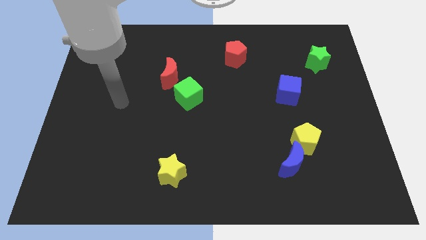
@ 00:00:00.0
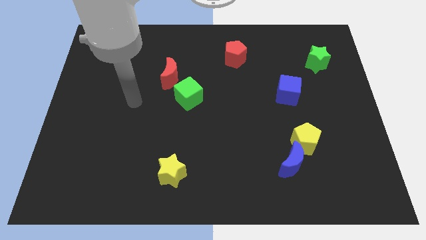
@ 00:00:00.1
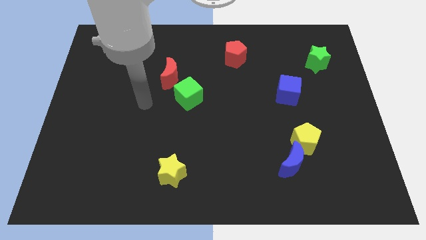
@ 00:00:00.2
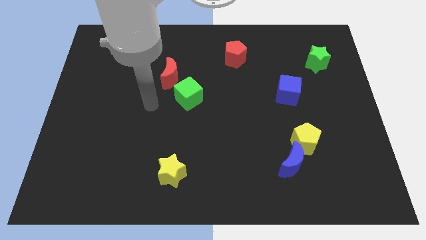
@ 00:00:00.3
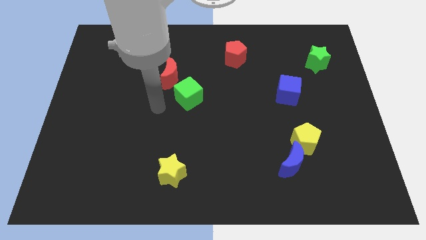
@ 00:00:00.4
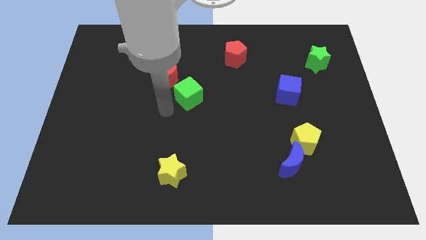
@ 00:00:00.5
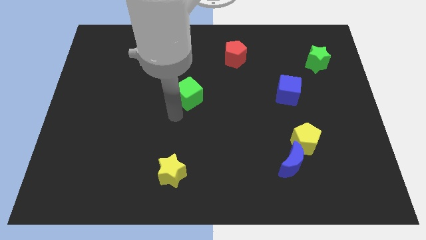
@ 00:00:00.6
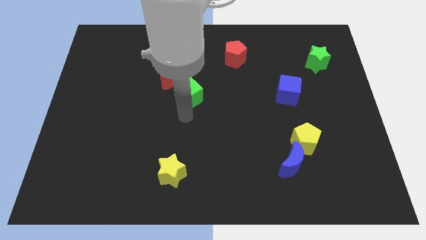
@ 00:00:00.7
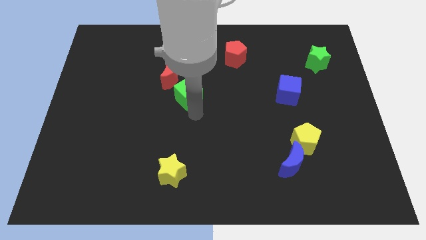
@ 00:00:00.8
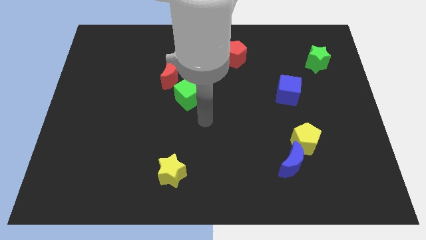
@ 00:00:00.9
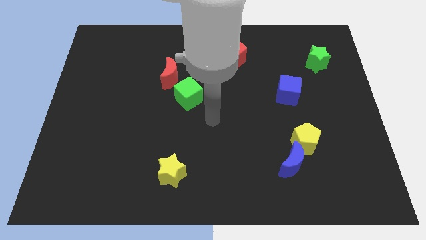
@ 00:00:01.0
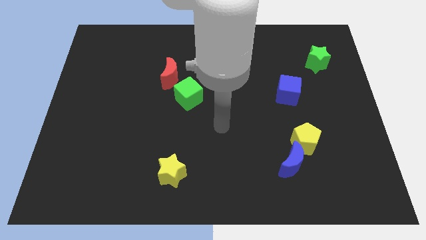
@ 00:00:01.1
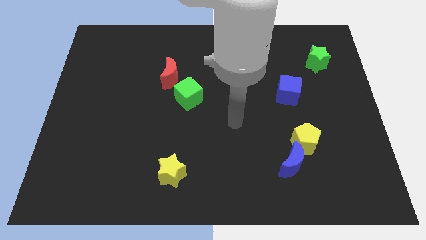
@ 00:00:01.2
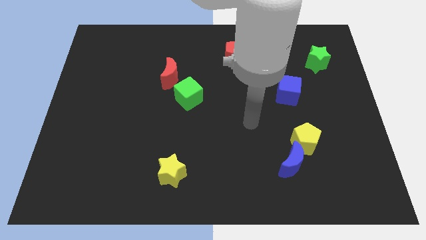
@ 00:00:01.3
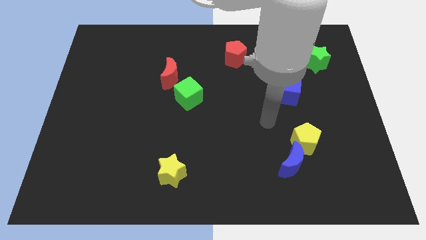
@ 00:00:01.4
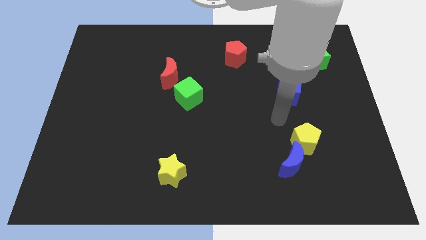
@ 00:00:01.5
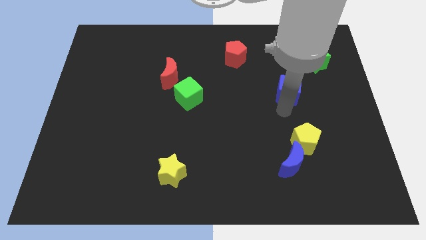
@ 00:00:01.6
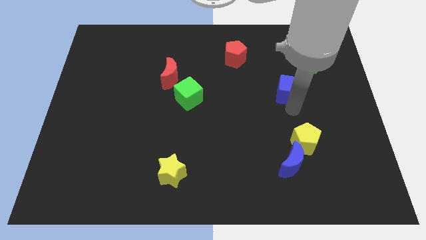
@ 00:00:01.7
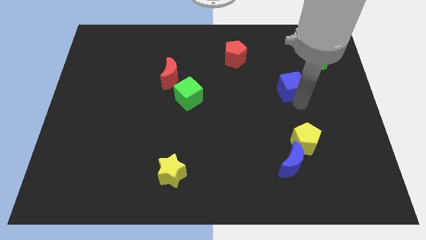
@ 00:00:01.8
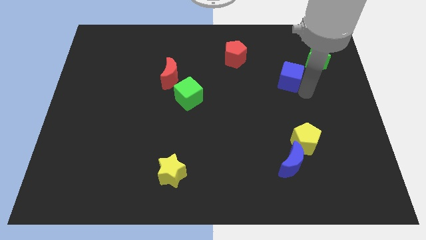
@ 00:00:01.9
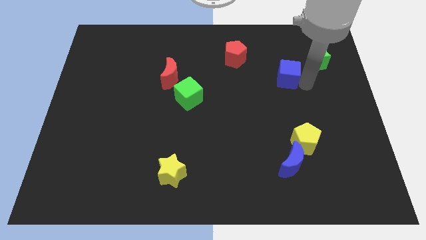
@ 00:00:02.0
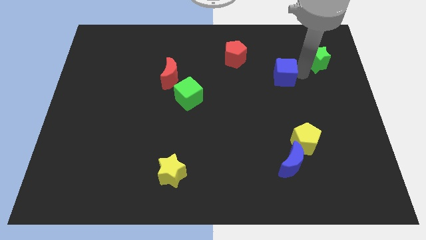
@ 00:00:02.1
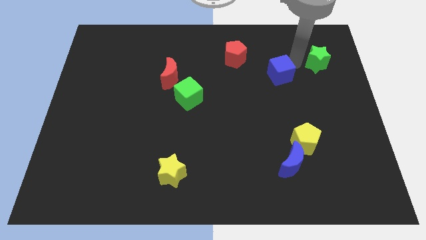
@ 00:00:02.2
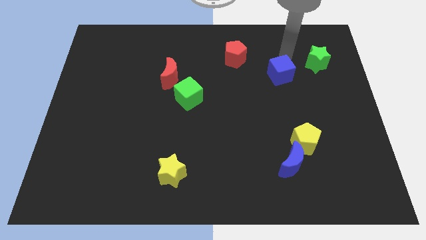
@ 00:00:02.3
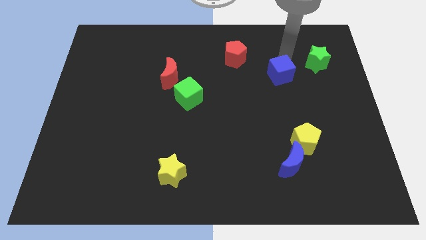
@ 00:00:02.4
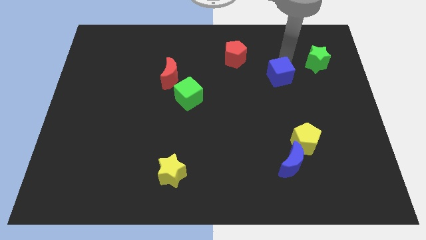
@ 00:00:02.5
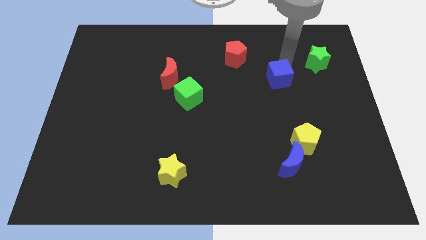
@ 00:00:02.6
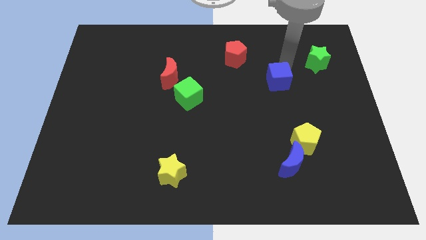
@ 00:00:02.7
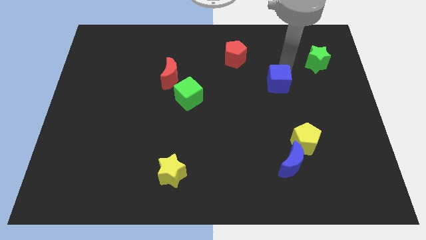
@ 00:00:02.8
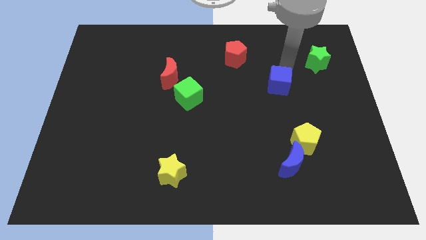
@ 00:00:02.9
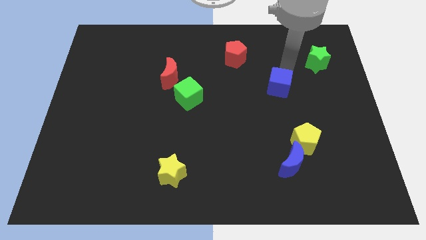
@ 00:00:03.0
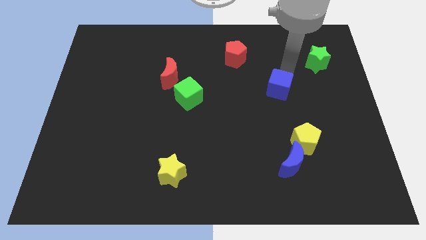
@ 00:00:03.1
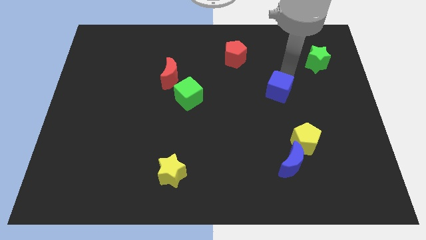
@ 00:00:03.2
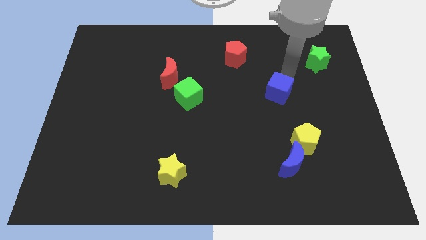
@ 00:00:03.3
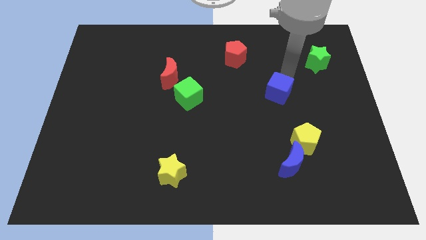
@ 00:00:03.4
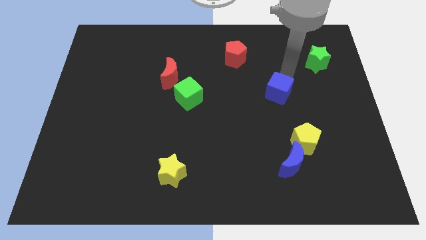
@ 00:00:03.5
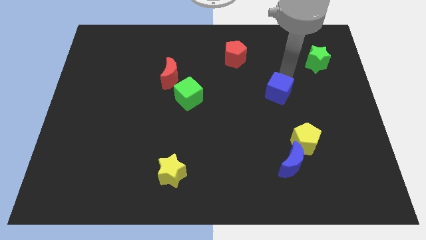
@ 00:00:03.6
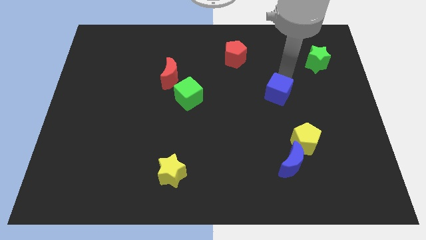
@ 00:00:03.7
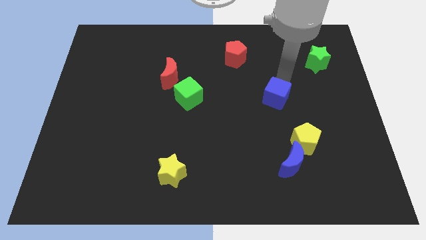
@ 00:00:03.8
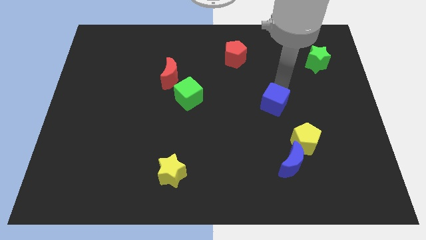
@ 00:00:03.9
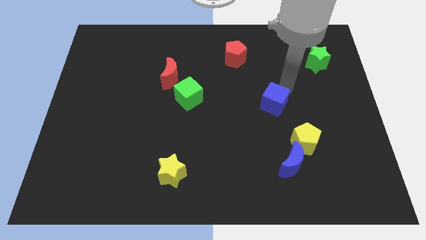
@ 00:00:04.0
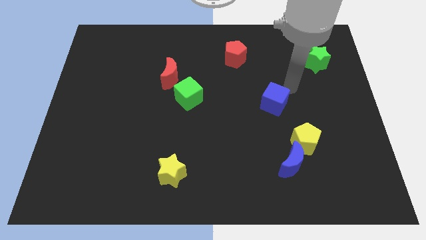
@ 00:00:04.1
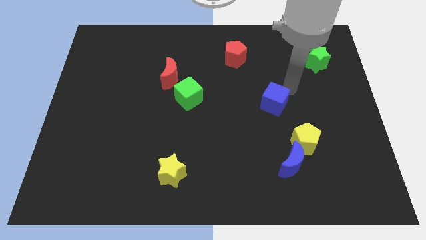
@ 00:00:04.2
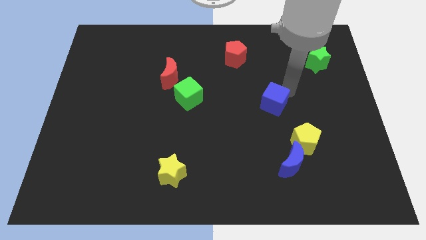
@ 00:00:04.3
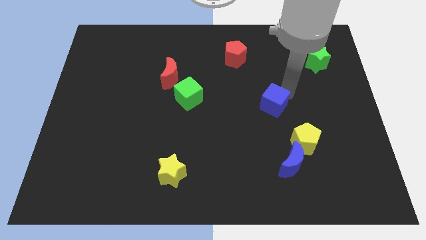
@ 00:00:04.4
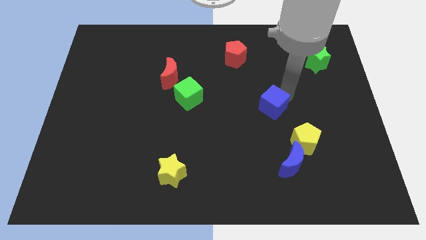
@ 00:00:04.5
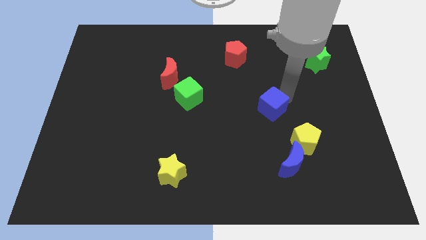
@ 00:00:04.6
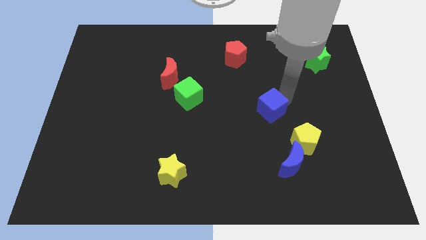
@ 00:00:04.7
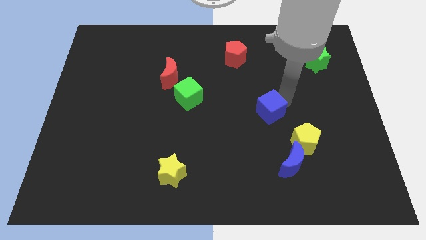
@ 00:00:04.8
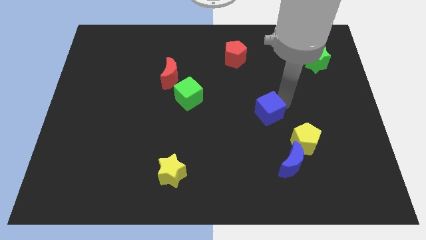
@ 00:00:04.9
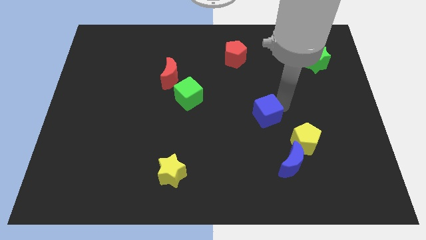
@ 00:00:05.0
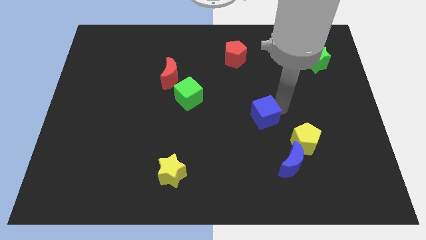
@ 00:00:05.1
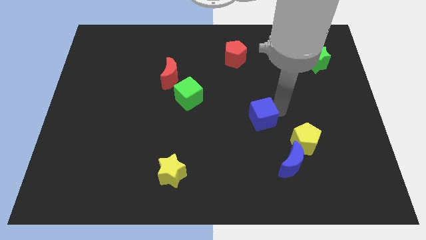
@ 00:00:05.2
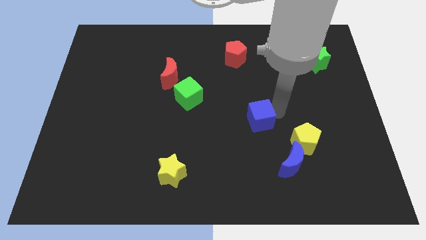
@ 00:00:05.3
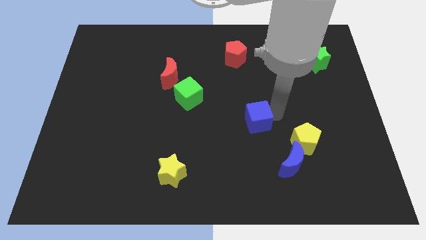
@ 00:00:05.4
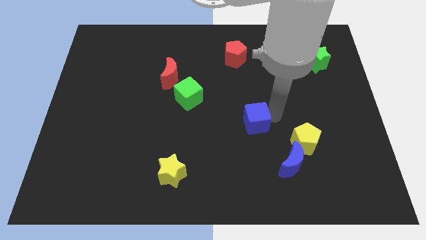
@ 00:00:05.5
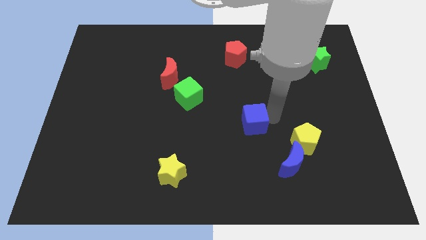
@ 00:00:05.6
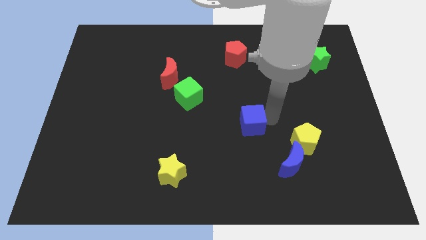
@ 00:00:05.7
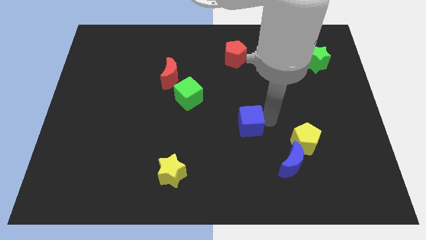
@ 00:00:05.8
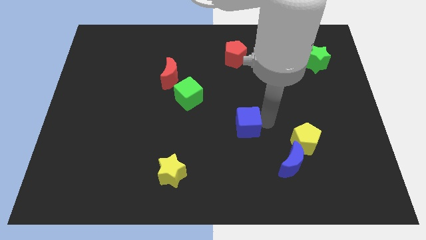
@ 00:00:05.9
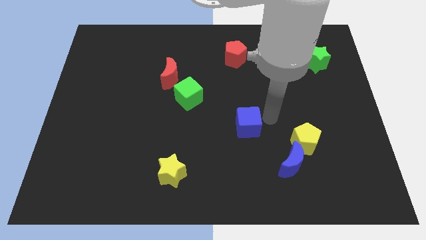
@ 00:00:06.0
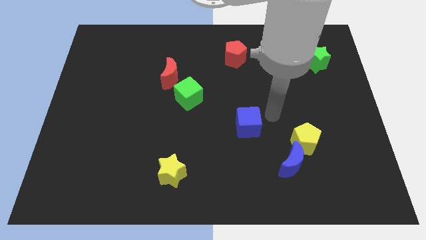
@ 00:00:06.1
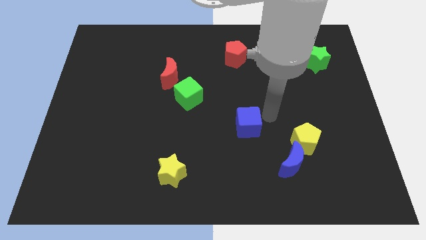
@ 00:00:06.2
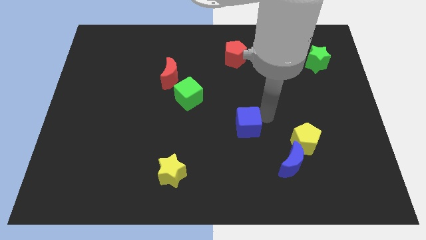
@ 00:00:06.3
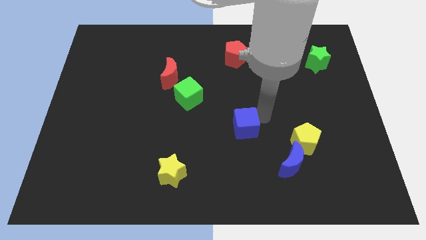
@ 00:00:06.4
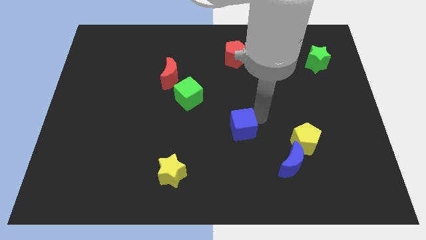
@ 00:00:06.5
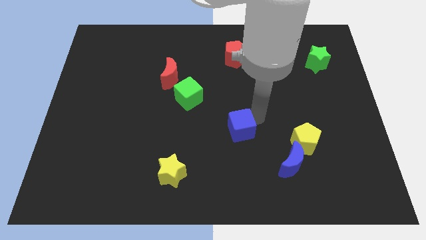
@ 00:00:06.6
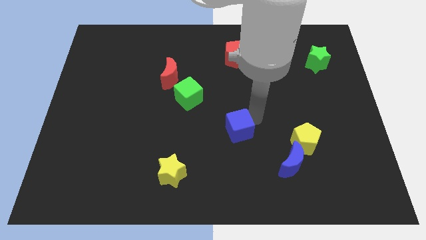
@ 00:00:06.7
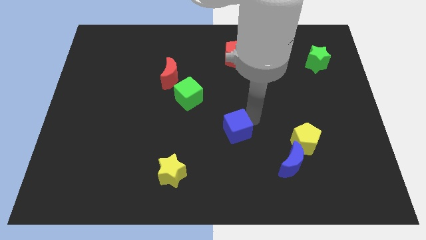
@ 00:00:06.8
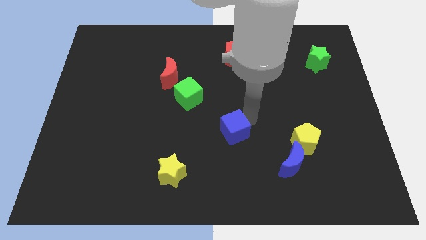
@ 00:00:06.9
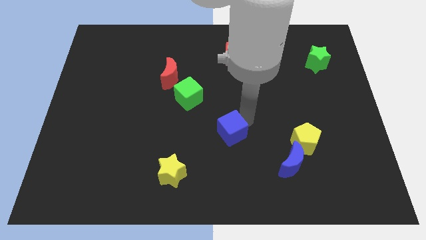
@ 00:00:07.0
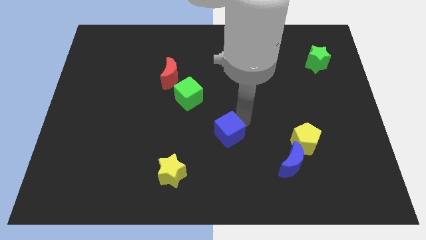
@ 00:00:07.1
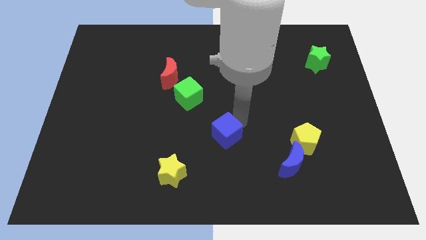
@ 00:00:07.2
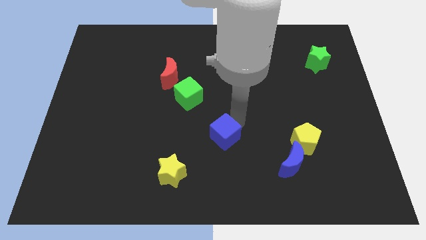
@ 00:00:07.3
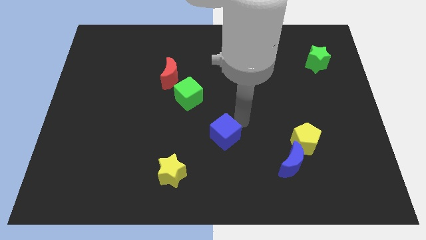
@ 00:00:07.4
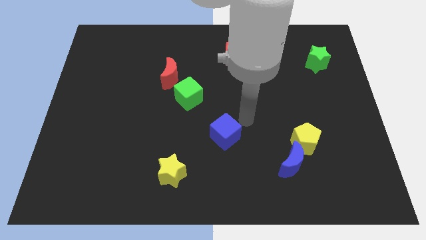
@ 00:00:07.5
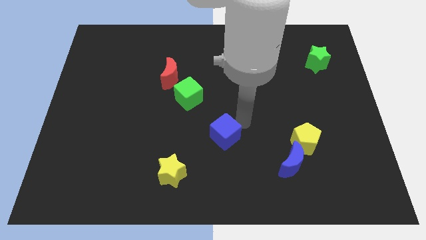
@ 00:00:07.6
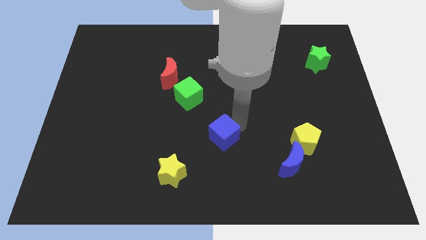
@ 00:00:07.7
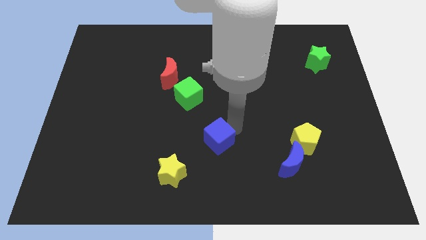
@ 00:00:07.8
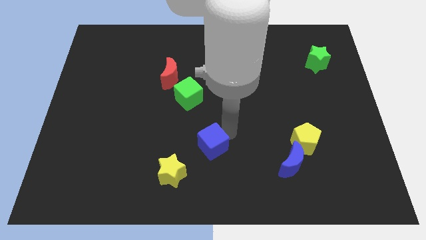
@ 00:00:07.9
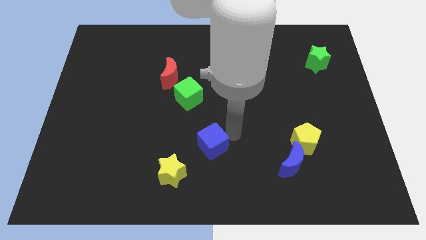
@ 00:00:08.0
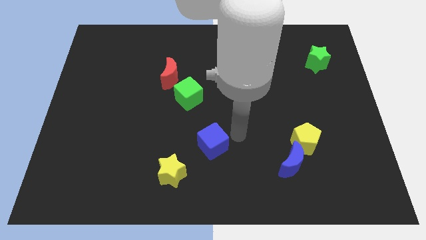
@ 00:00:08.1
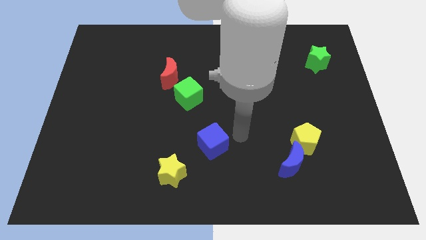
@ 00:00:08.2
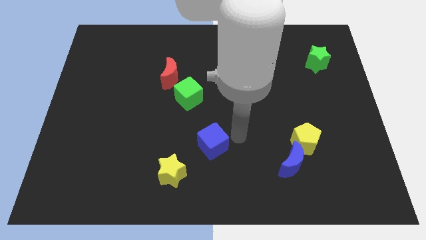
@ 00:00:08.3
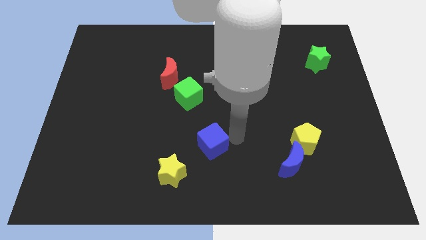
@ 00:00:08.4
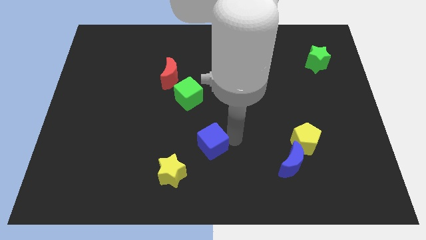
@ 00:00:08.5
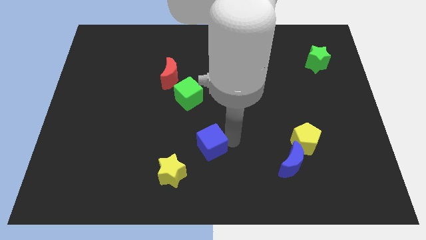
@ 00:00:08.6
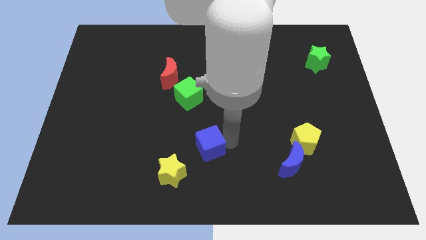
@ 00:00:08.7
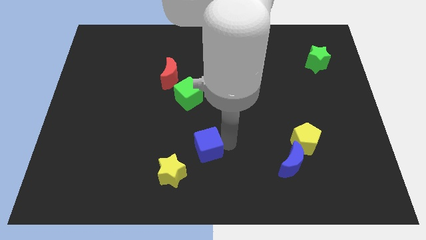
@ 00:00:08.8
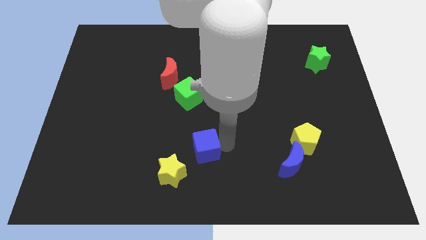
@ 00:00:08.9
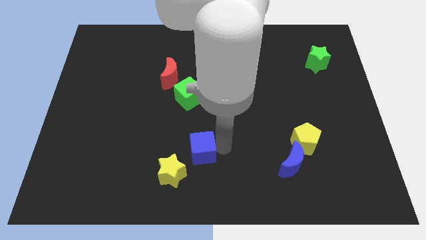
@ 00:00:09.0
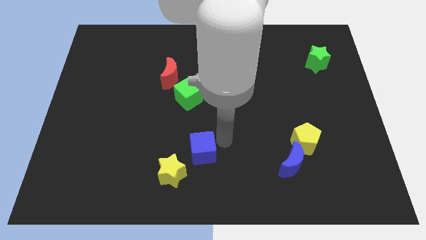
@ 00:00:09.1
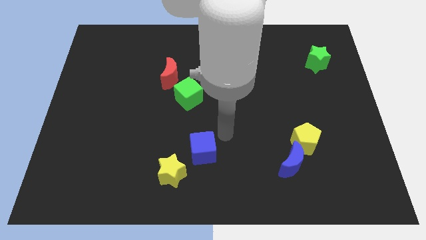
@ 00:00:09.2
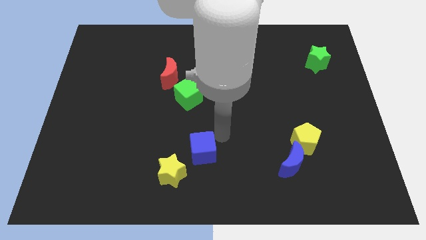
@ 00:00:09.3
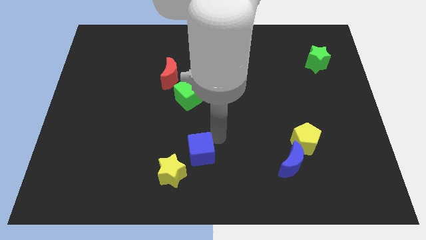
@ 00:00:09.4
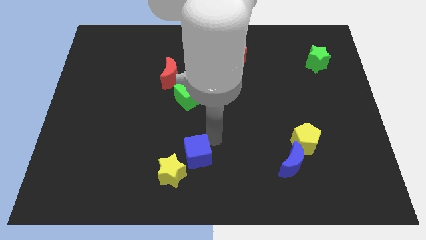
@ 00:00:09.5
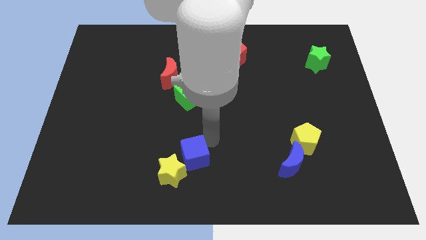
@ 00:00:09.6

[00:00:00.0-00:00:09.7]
put the blue cube close to the yellow star
